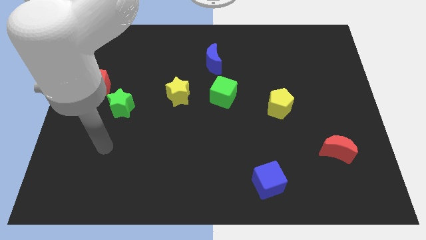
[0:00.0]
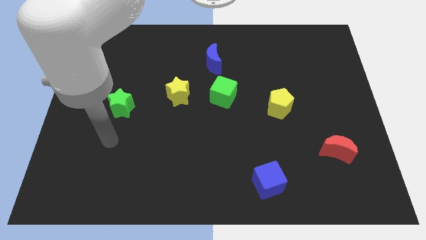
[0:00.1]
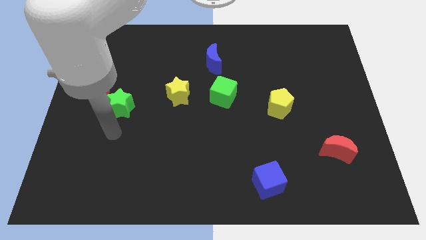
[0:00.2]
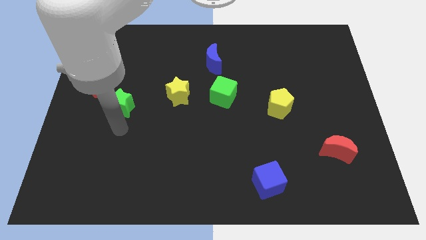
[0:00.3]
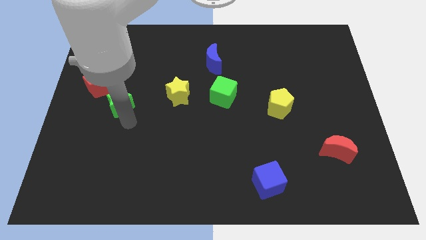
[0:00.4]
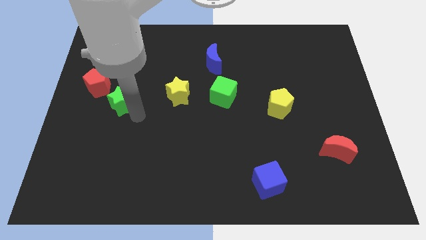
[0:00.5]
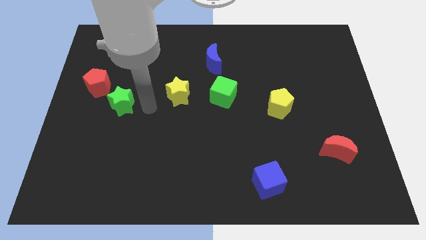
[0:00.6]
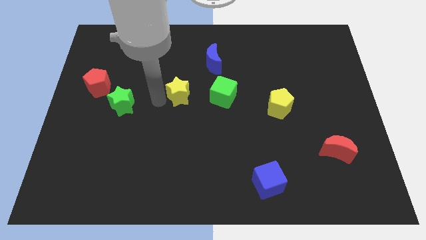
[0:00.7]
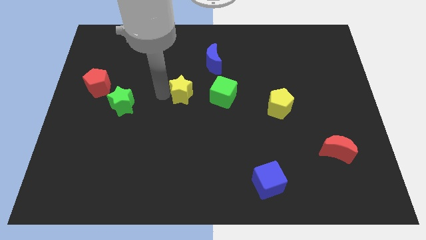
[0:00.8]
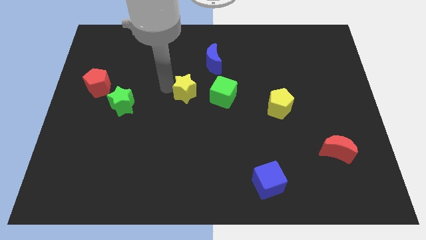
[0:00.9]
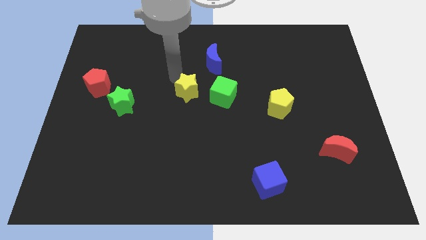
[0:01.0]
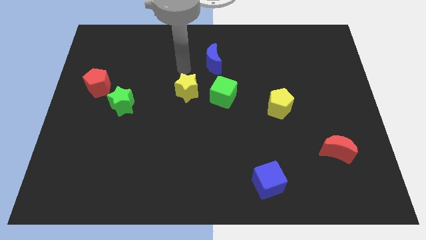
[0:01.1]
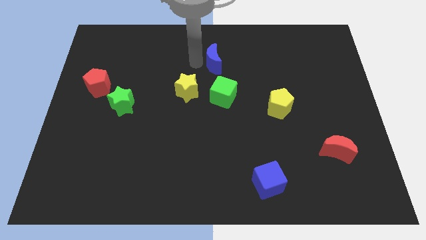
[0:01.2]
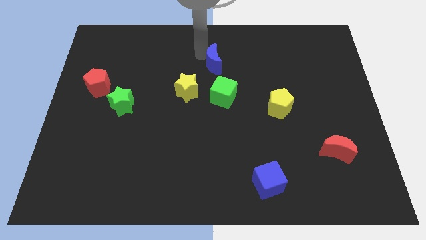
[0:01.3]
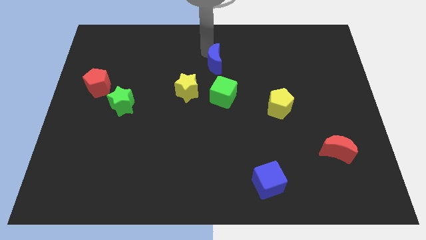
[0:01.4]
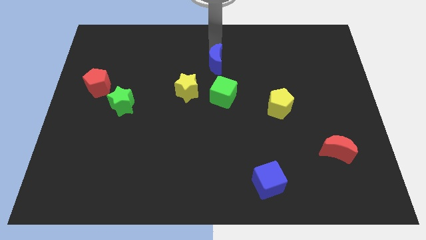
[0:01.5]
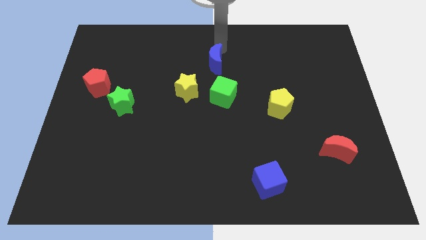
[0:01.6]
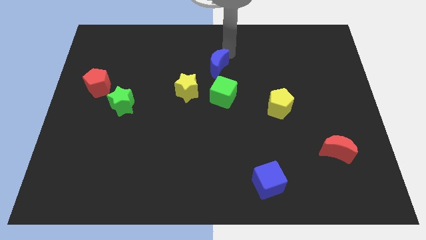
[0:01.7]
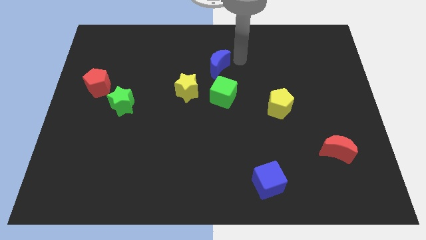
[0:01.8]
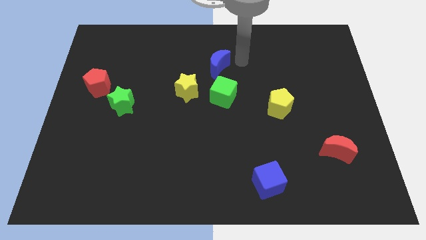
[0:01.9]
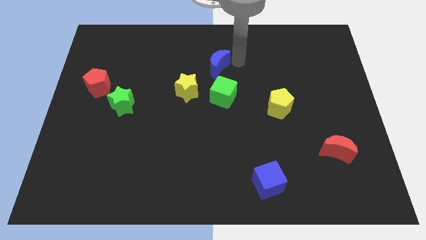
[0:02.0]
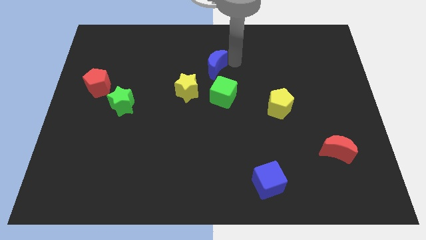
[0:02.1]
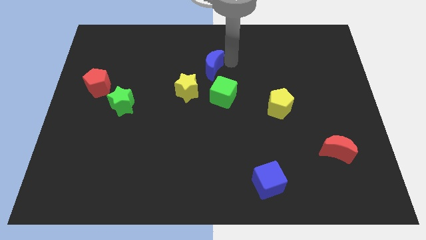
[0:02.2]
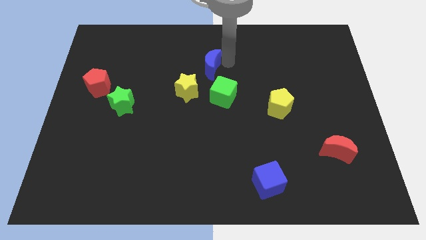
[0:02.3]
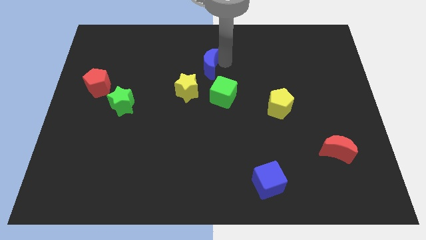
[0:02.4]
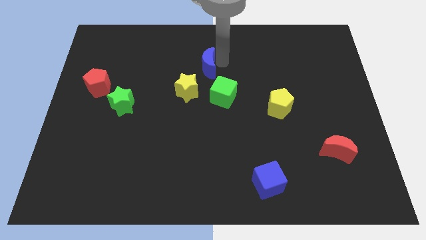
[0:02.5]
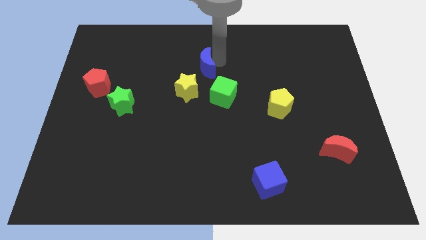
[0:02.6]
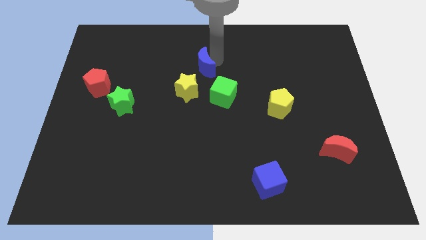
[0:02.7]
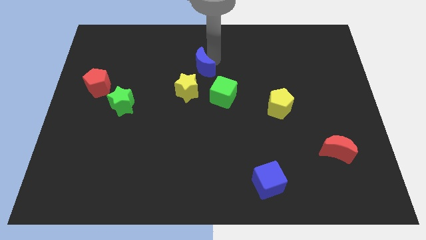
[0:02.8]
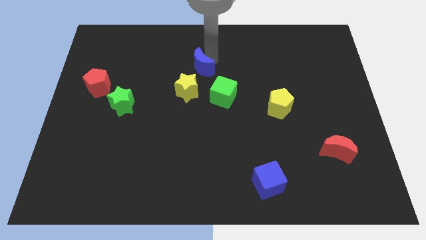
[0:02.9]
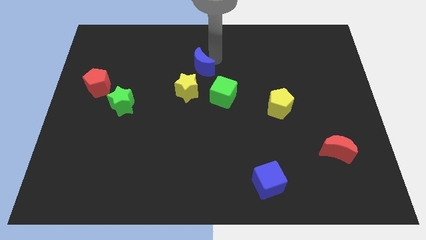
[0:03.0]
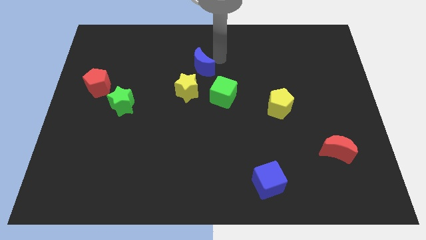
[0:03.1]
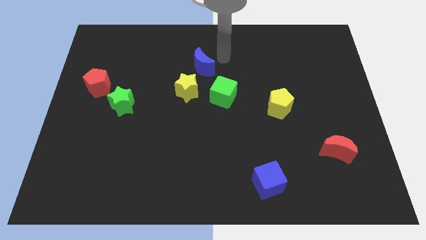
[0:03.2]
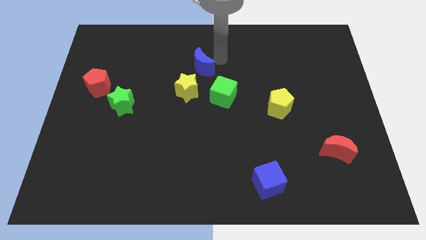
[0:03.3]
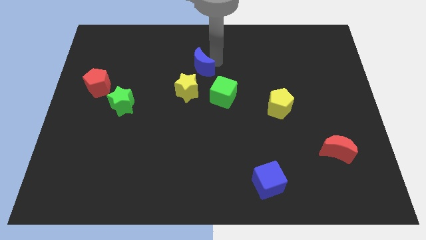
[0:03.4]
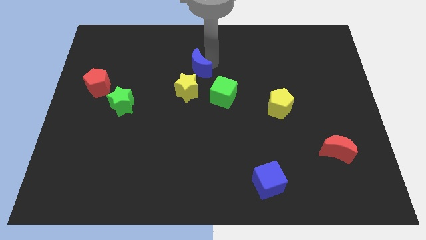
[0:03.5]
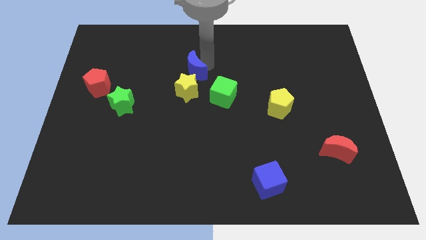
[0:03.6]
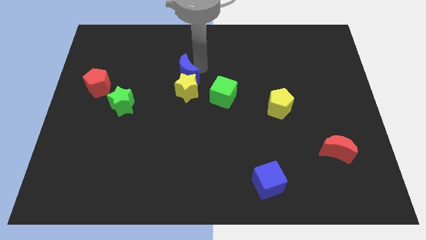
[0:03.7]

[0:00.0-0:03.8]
slide the blue moon slightly down and then left

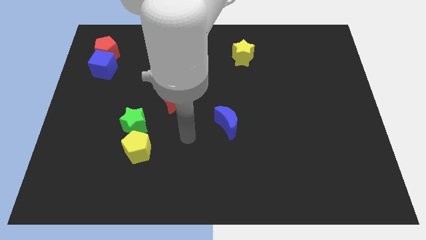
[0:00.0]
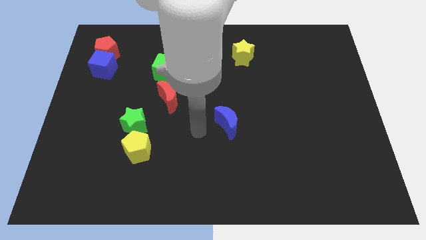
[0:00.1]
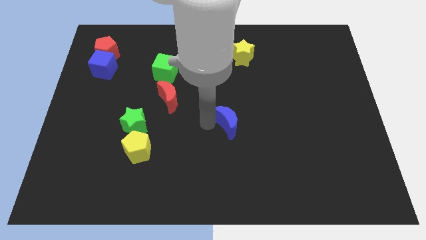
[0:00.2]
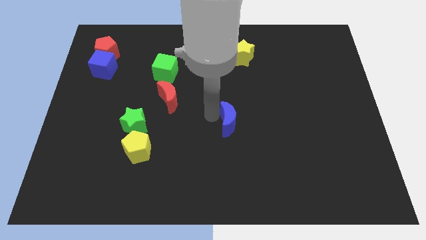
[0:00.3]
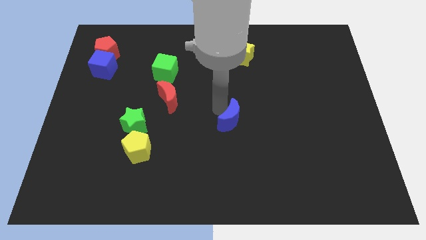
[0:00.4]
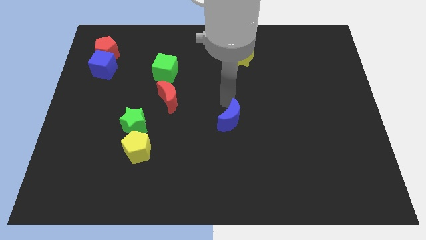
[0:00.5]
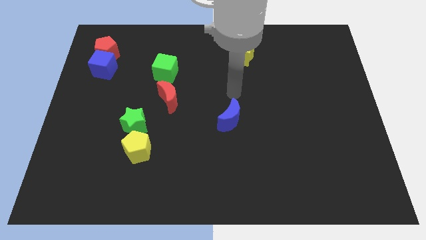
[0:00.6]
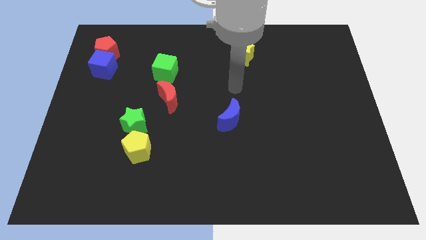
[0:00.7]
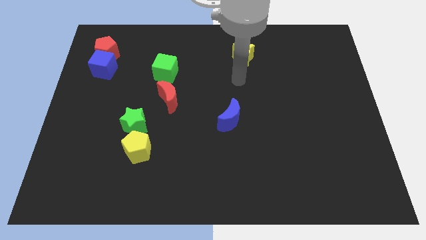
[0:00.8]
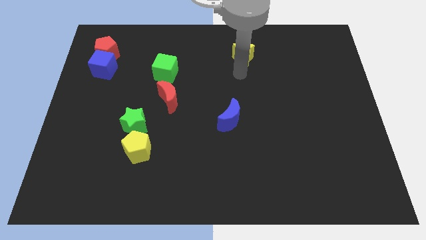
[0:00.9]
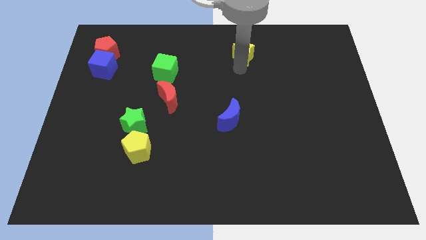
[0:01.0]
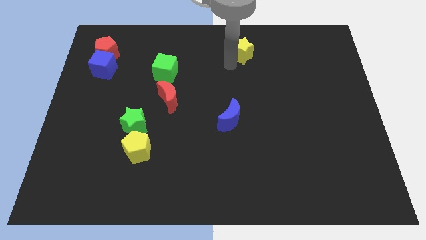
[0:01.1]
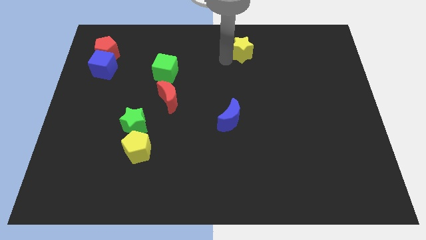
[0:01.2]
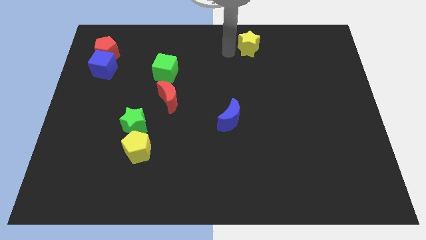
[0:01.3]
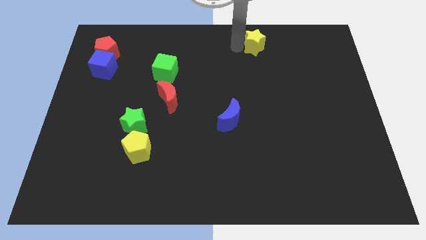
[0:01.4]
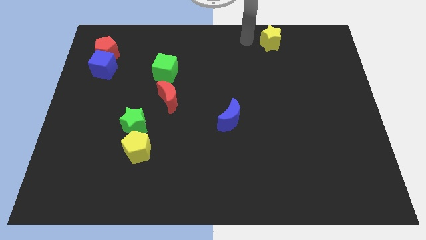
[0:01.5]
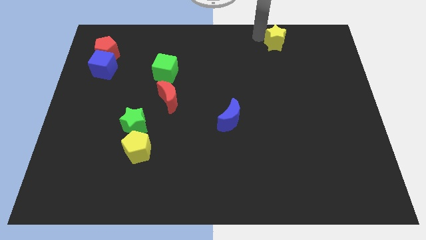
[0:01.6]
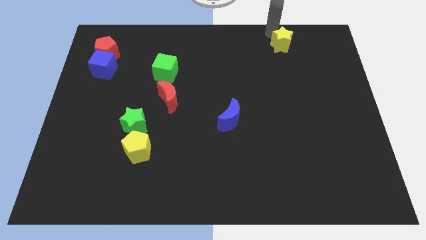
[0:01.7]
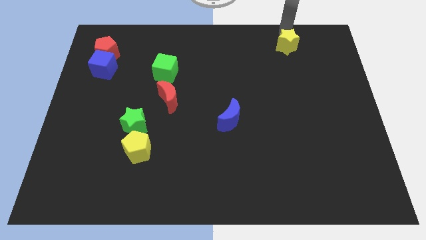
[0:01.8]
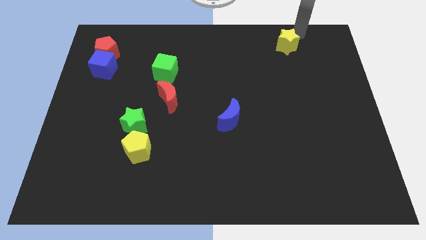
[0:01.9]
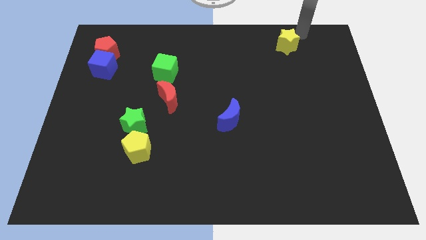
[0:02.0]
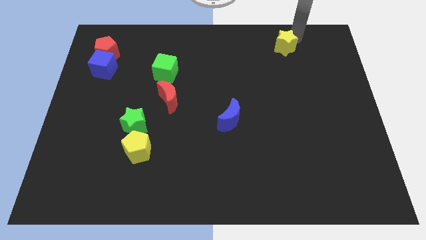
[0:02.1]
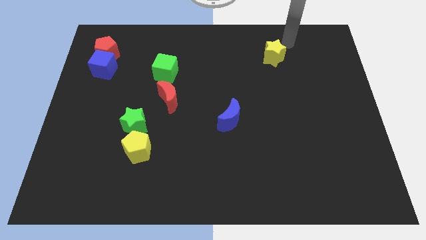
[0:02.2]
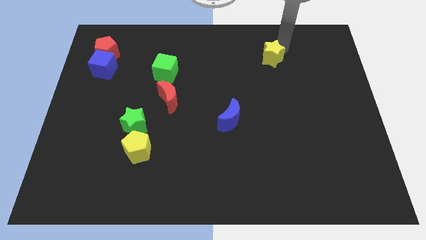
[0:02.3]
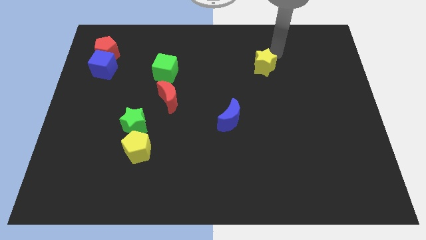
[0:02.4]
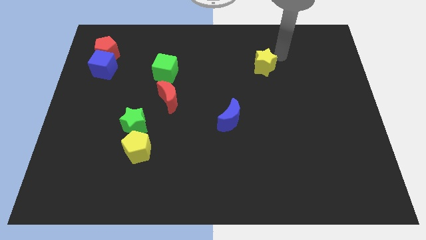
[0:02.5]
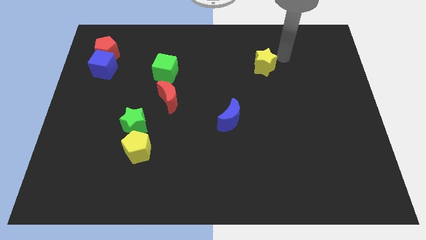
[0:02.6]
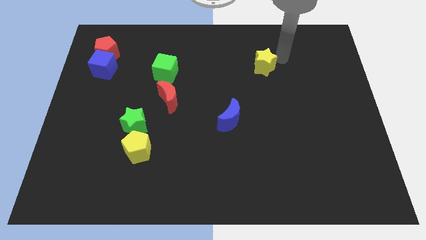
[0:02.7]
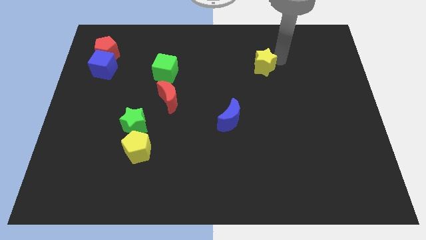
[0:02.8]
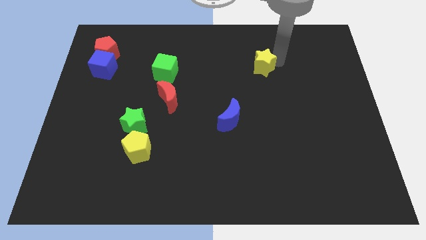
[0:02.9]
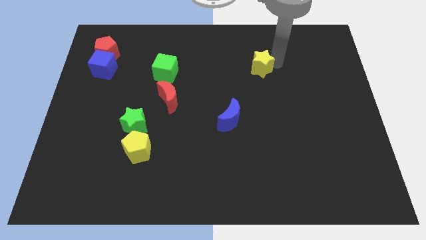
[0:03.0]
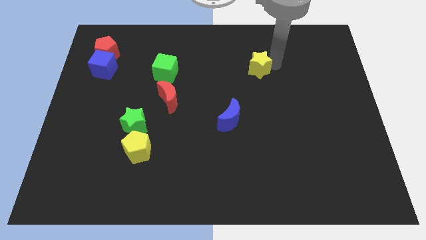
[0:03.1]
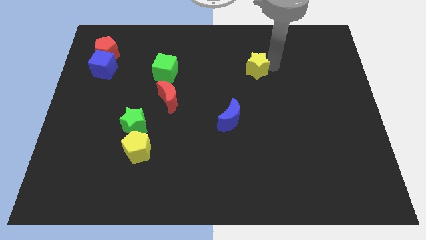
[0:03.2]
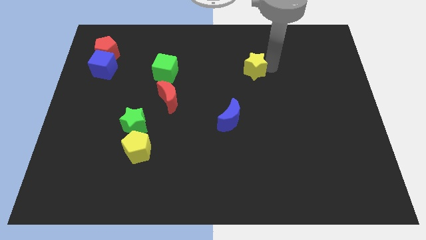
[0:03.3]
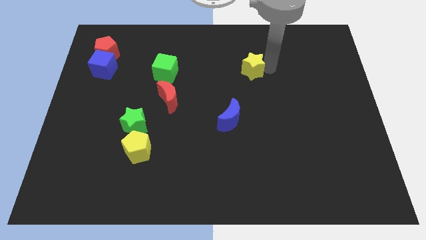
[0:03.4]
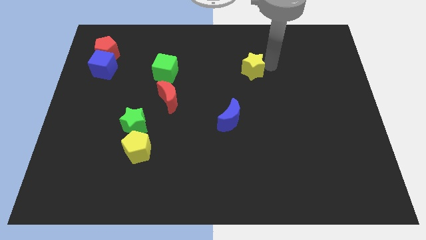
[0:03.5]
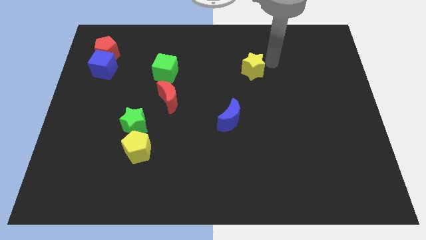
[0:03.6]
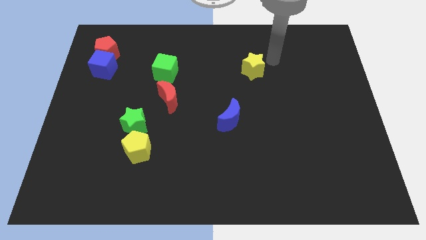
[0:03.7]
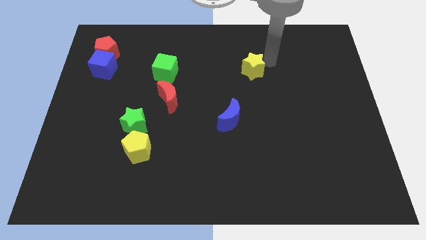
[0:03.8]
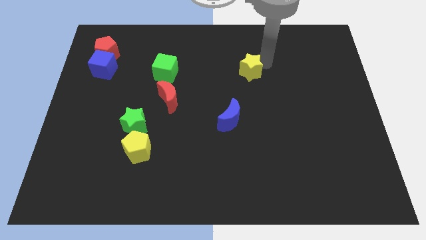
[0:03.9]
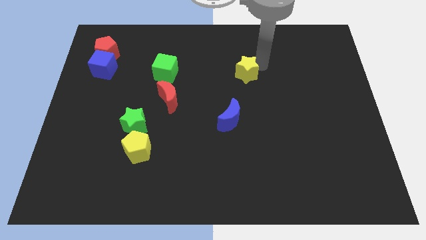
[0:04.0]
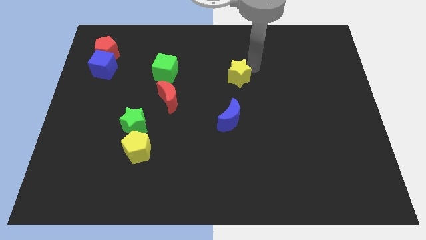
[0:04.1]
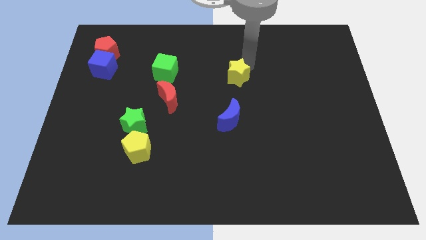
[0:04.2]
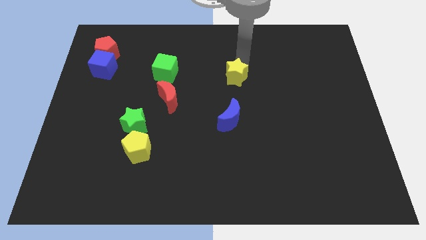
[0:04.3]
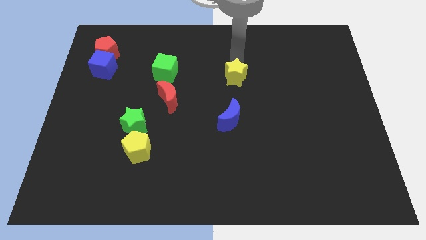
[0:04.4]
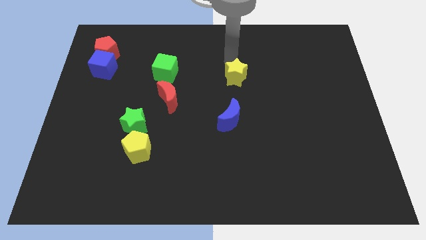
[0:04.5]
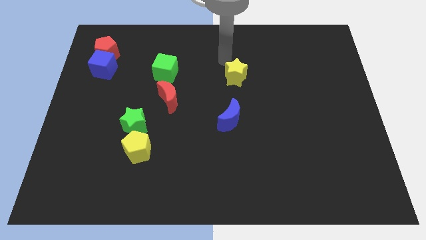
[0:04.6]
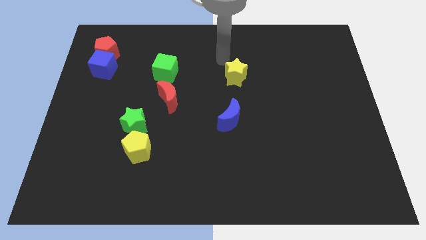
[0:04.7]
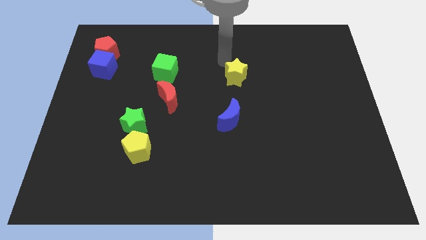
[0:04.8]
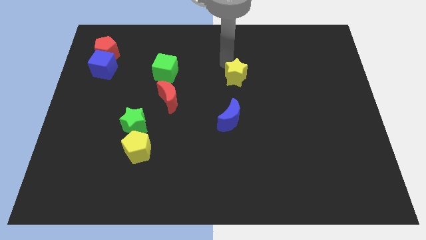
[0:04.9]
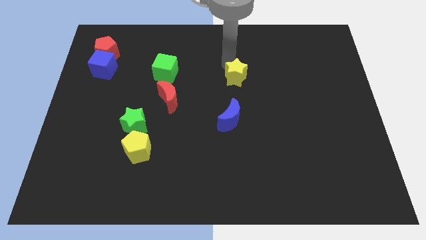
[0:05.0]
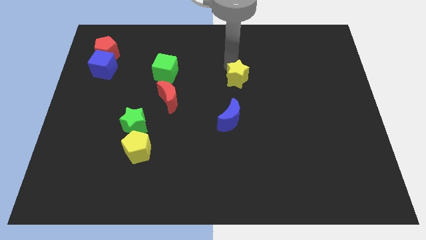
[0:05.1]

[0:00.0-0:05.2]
slide the yellow star down somewhat
